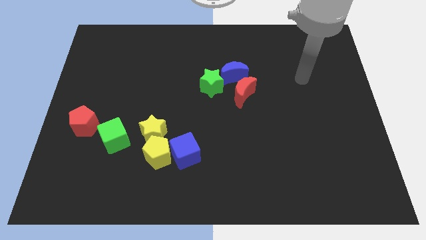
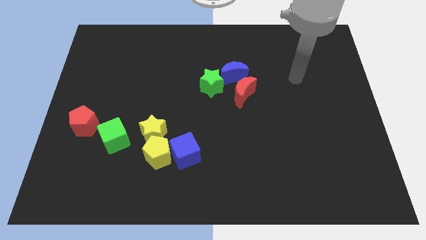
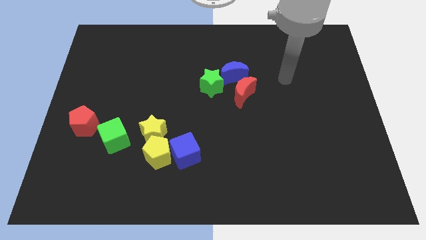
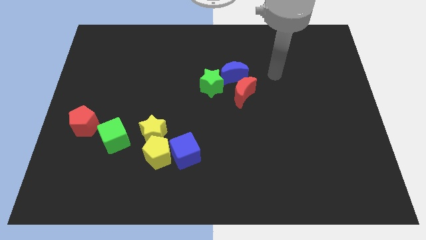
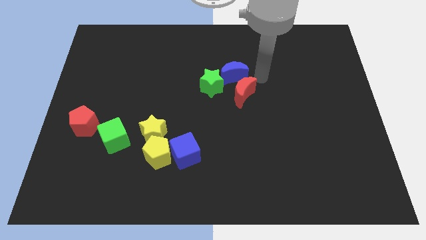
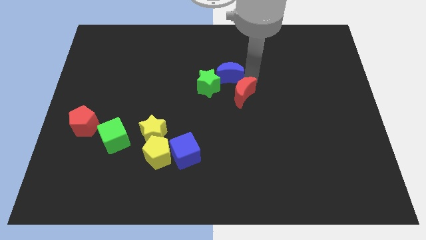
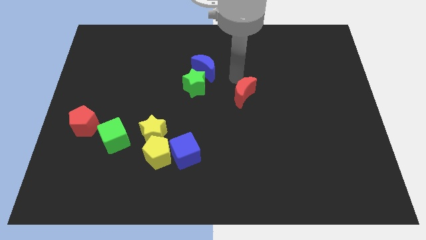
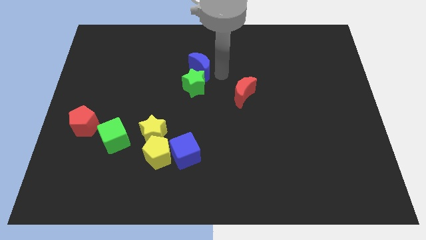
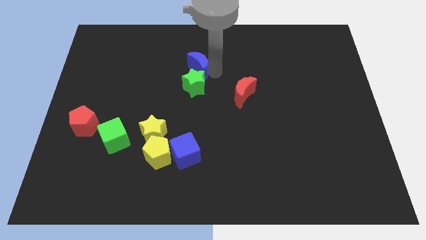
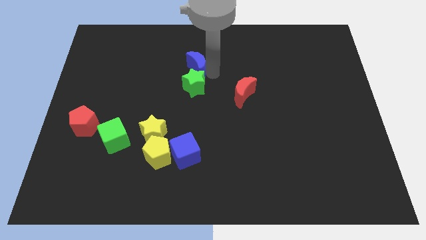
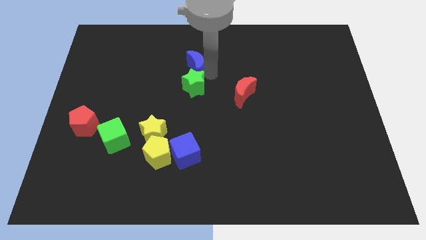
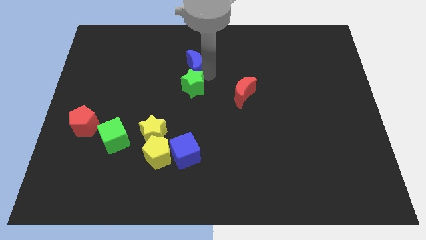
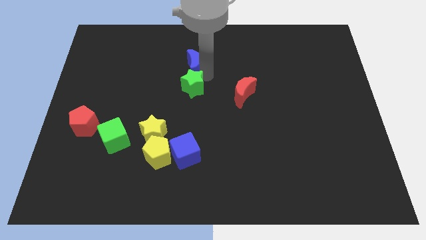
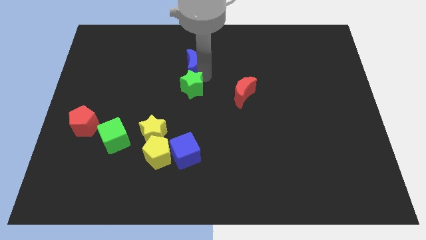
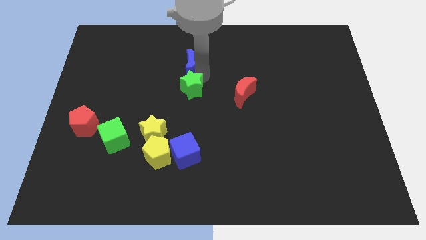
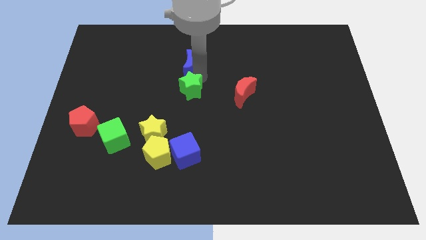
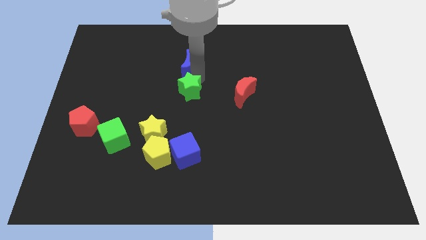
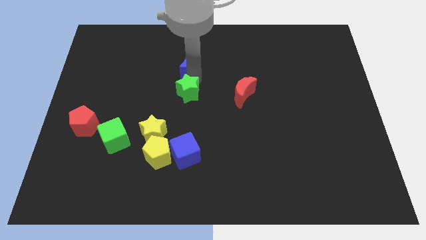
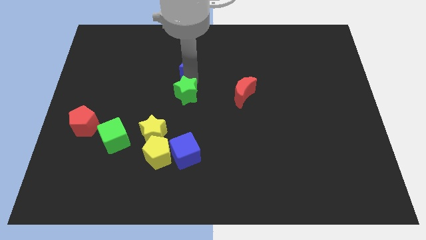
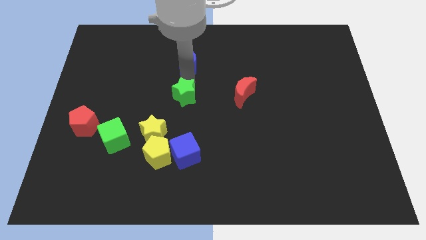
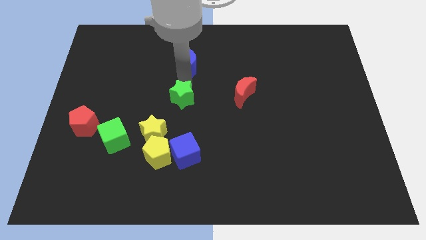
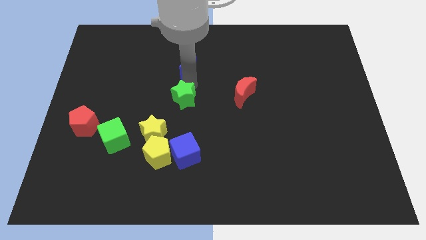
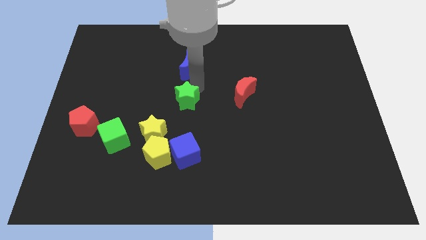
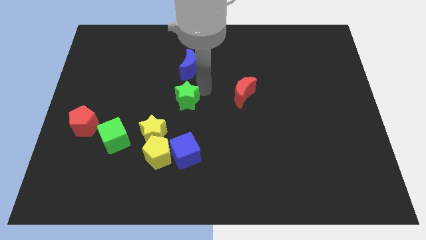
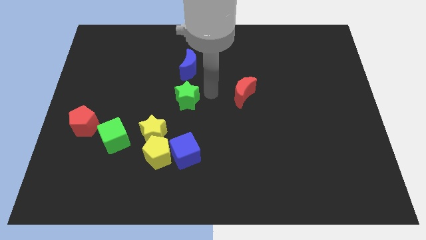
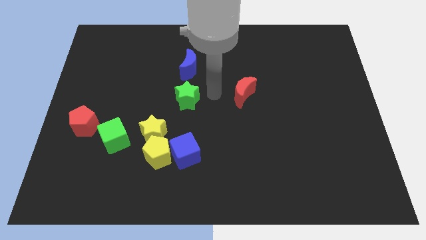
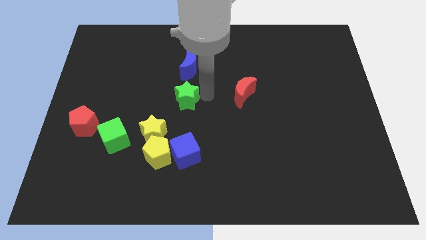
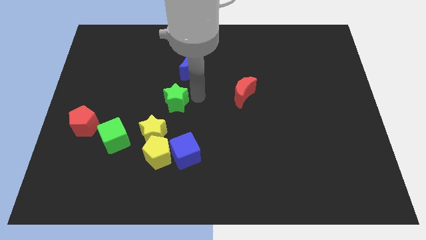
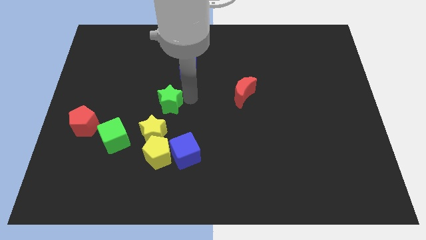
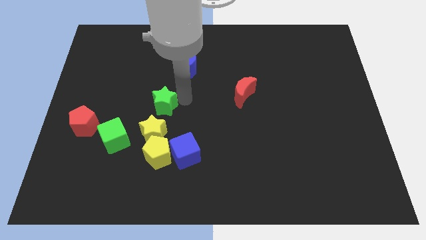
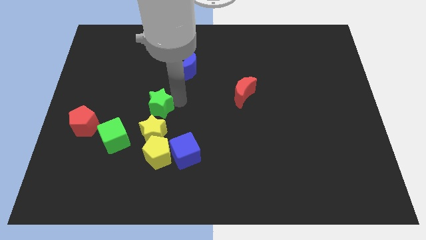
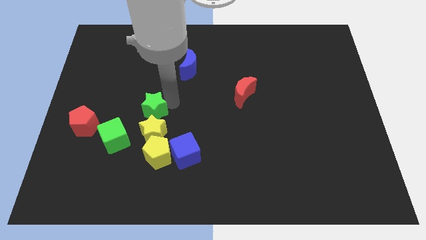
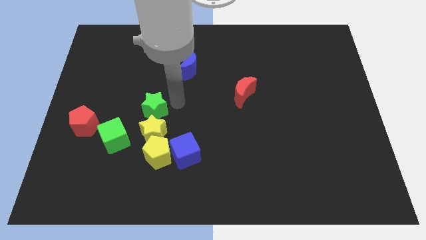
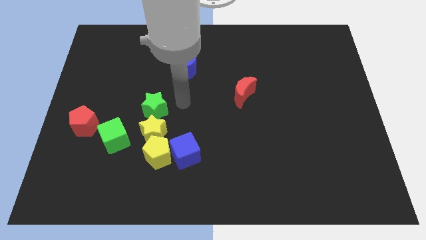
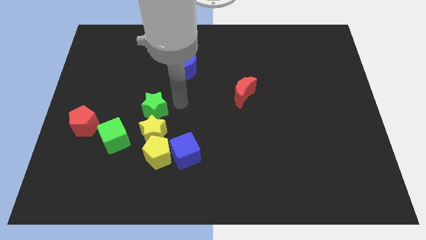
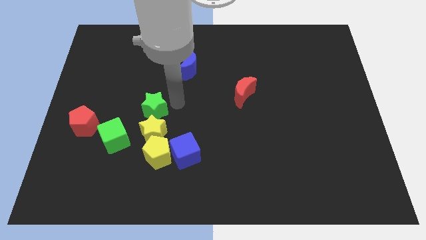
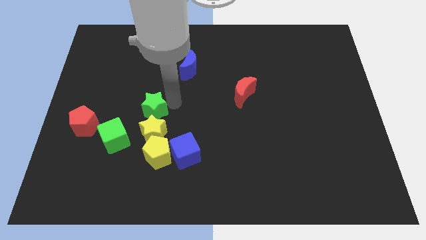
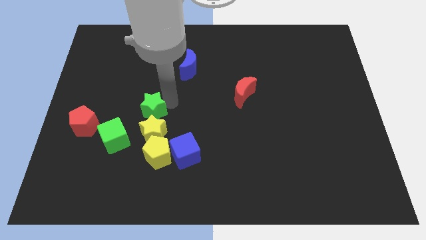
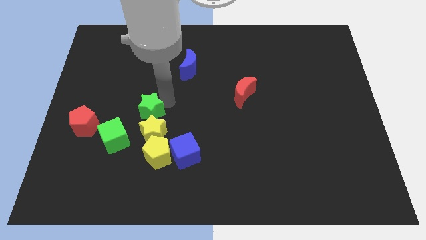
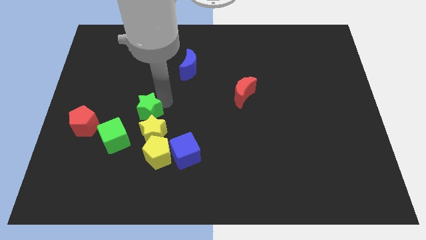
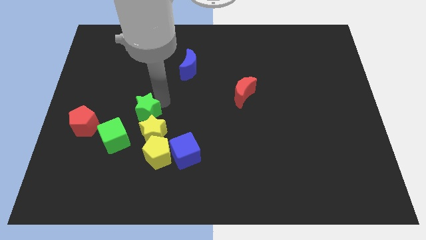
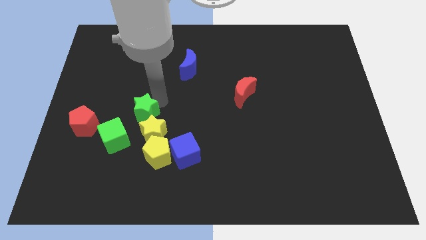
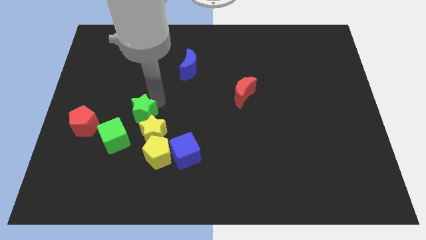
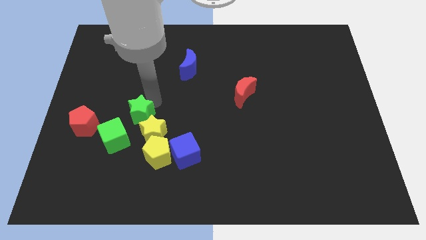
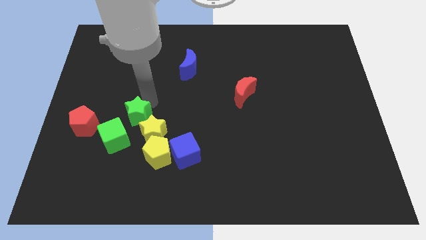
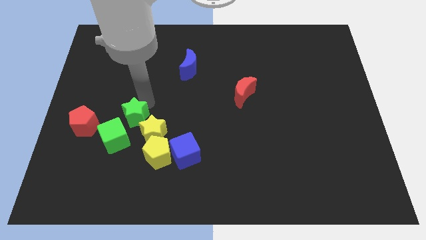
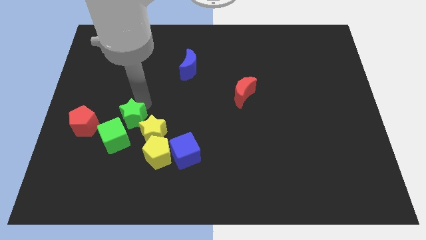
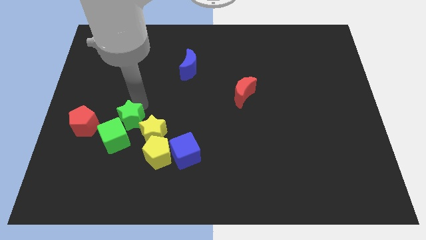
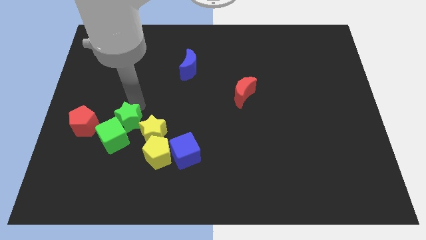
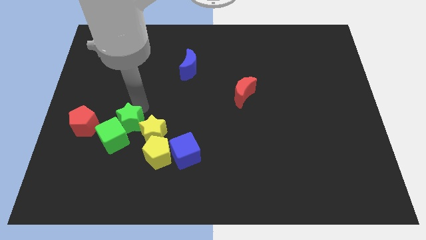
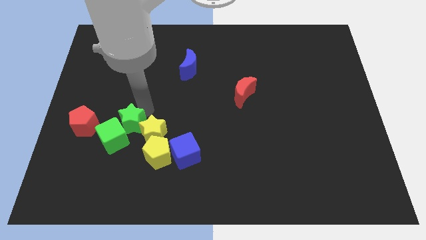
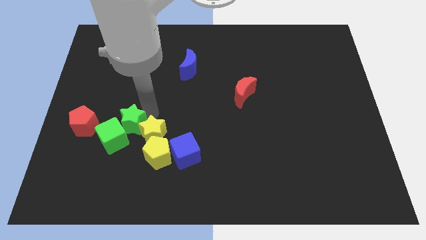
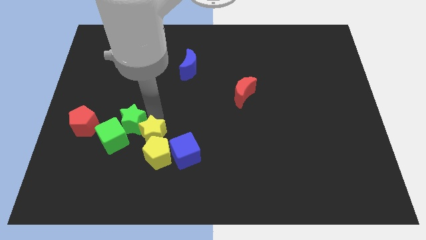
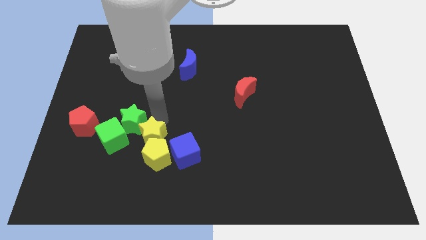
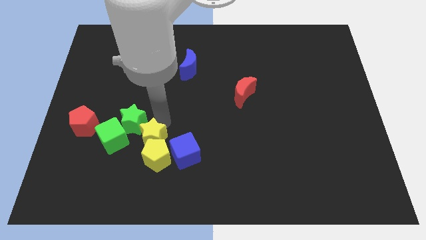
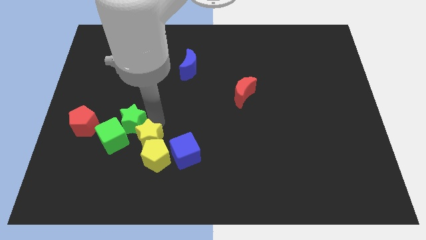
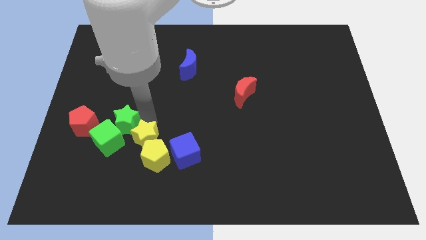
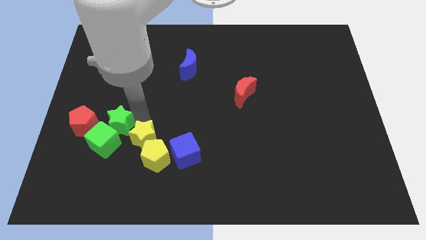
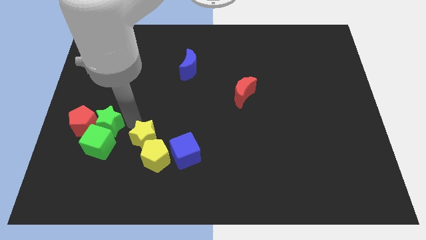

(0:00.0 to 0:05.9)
put the green star close to the red pentagon

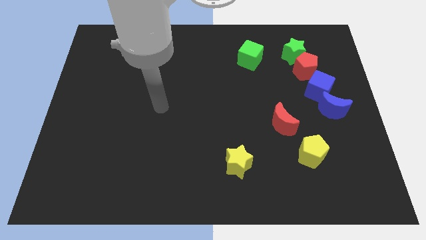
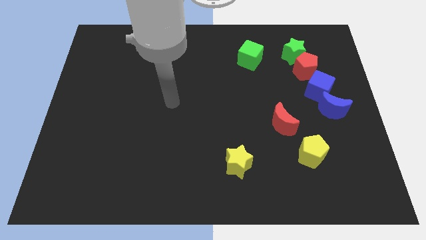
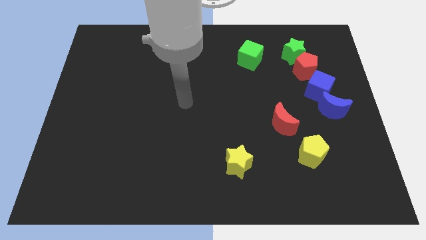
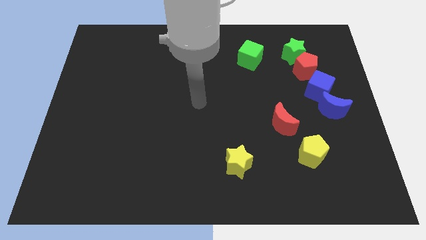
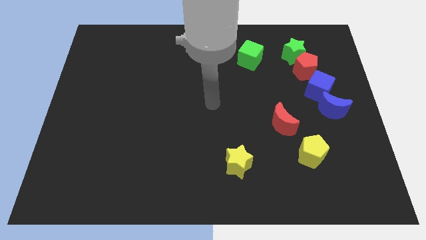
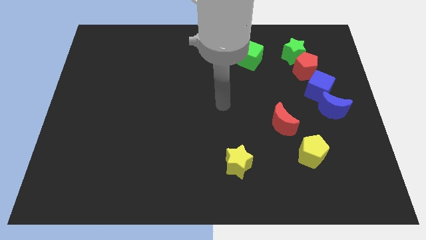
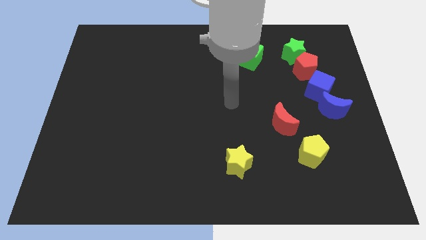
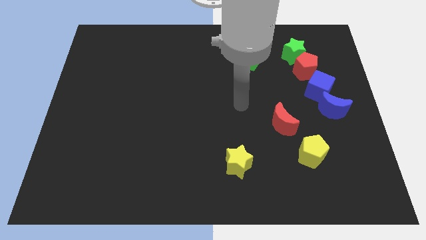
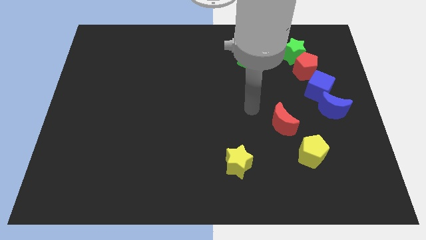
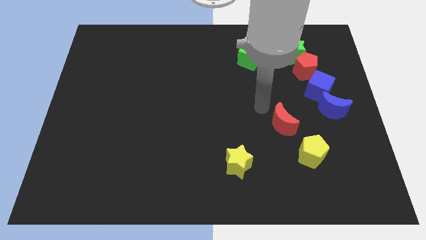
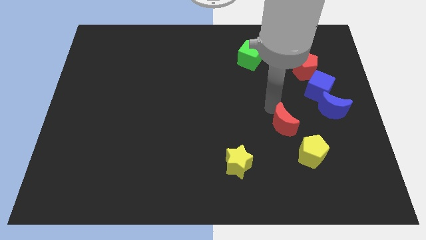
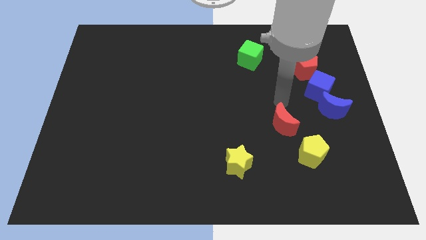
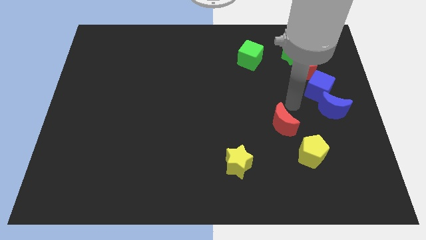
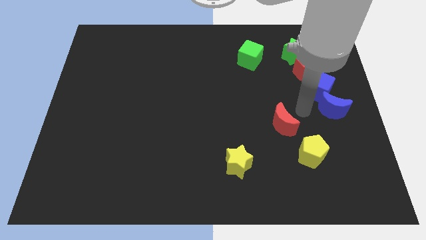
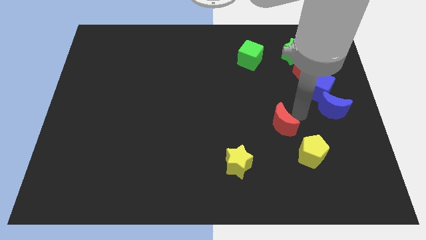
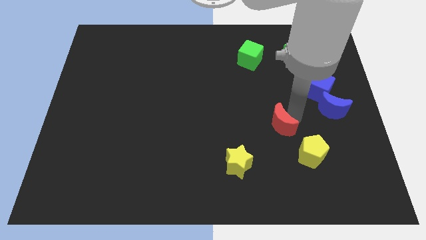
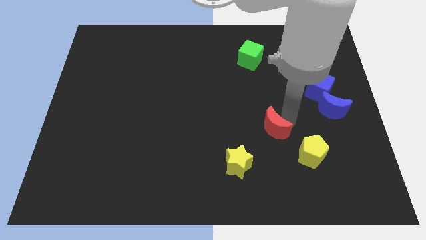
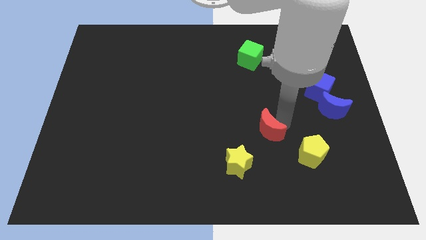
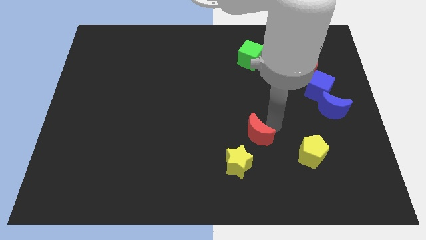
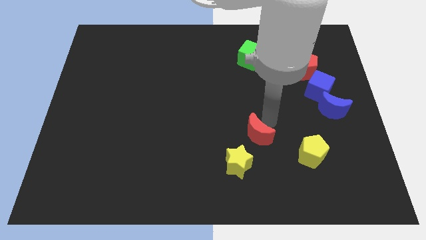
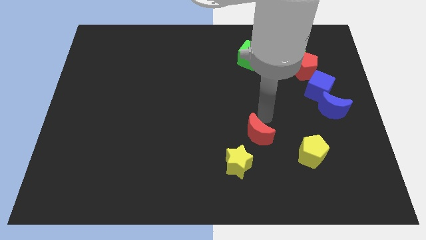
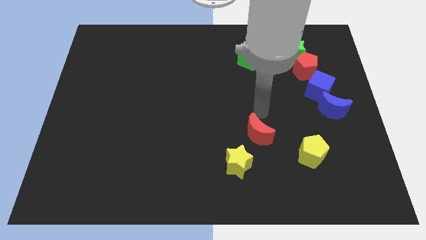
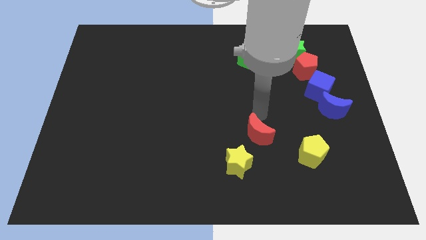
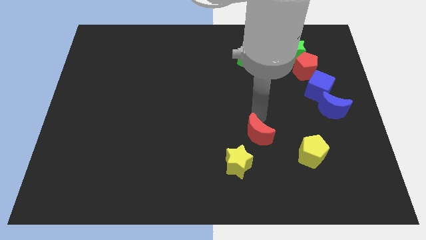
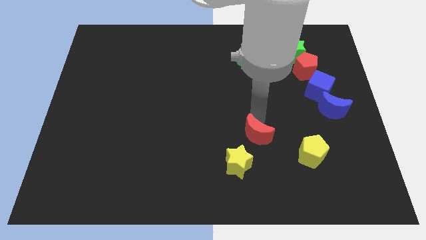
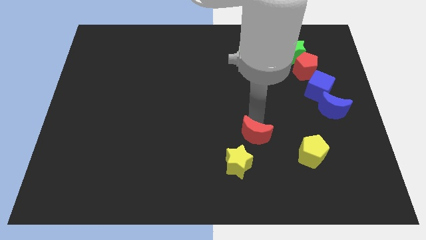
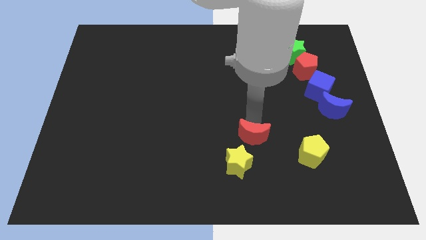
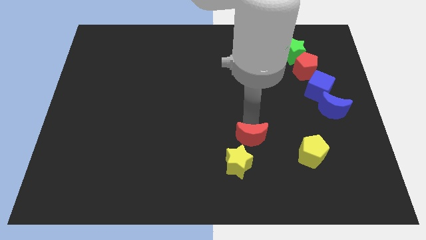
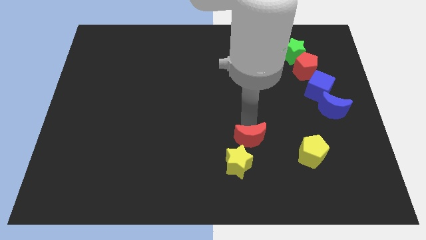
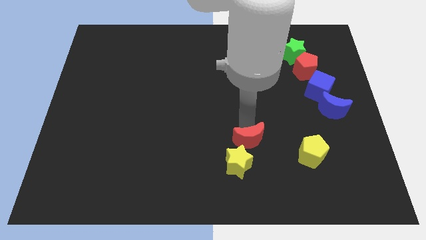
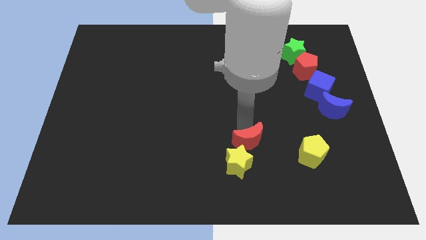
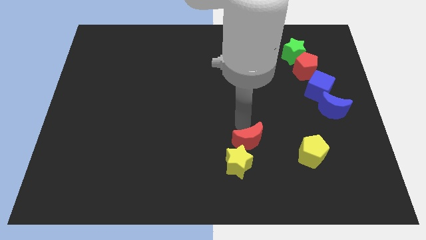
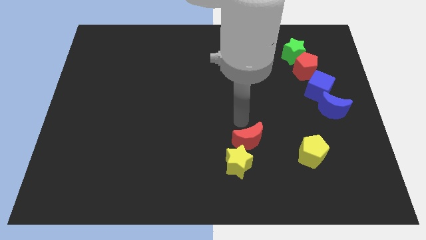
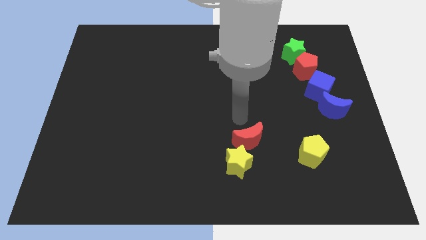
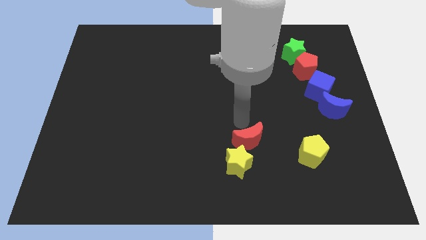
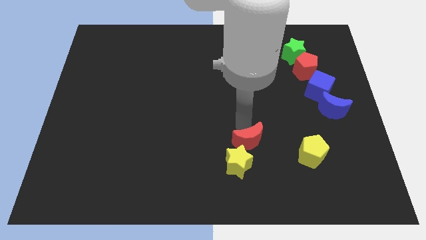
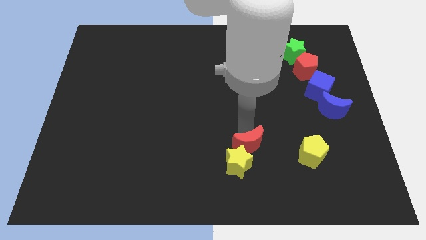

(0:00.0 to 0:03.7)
slide the red moon towards the yellow star
